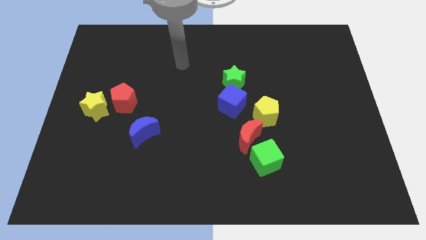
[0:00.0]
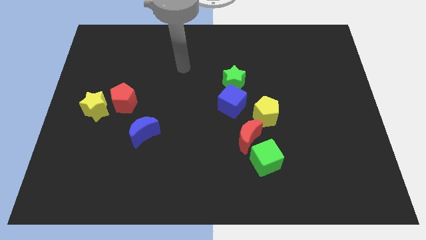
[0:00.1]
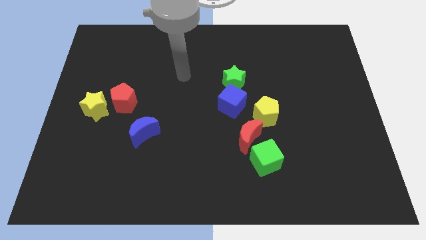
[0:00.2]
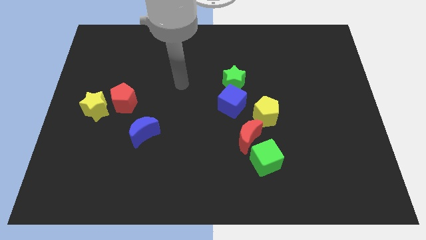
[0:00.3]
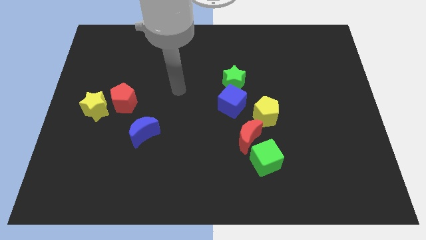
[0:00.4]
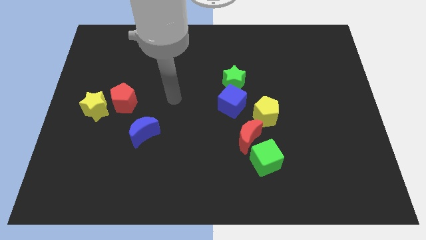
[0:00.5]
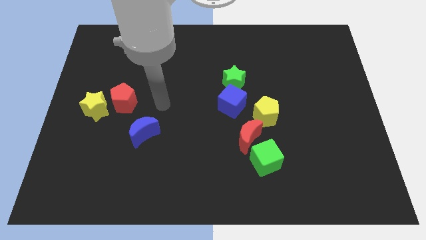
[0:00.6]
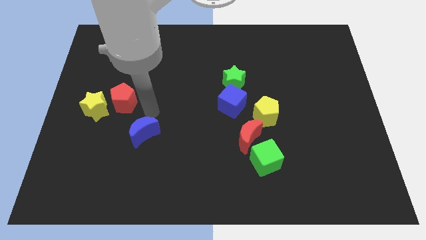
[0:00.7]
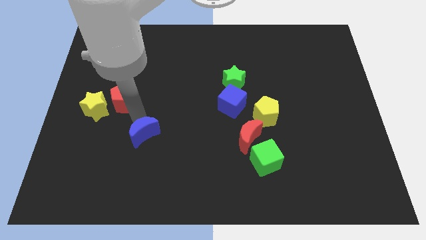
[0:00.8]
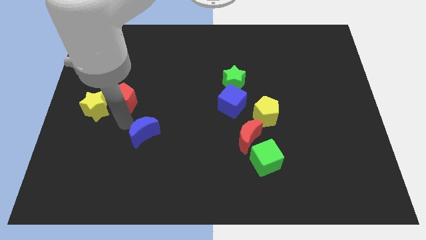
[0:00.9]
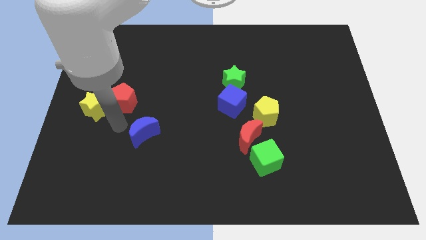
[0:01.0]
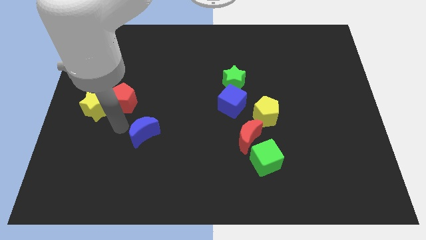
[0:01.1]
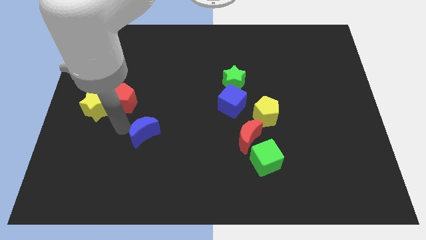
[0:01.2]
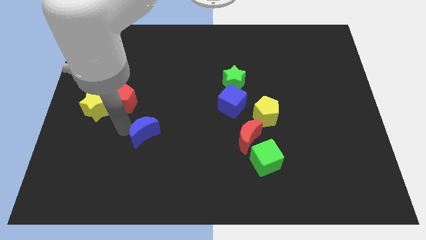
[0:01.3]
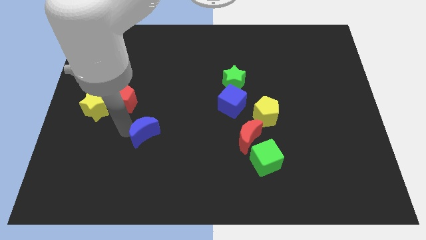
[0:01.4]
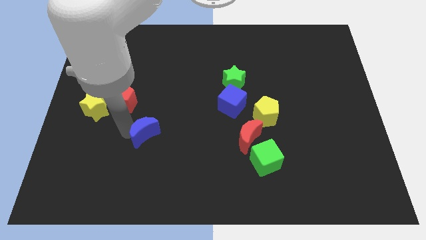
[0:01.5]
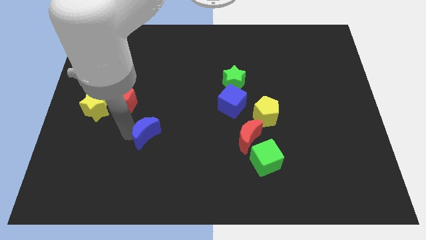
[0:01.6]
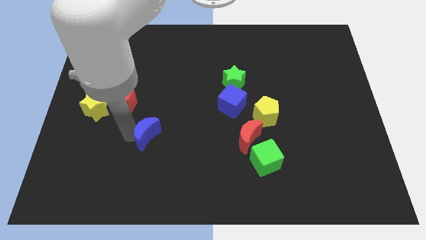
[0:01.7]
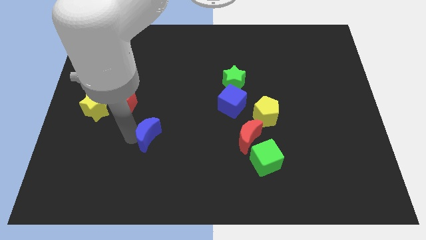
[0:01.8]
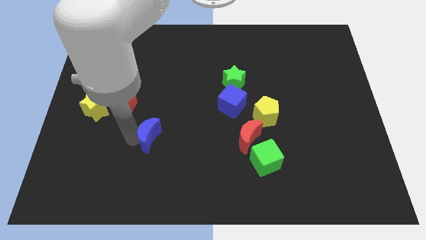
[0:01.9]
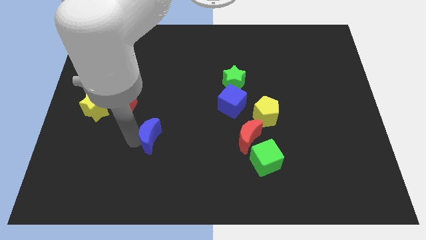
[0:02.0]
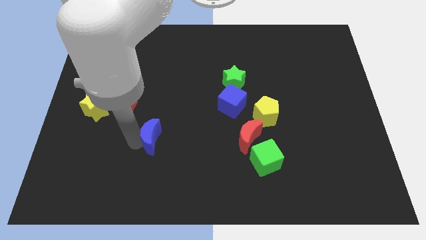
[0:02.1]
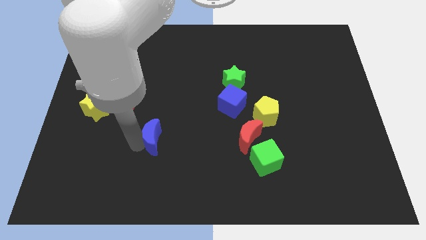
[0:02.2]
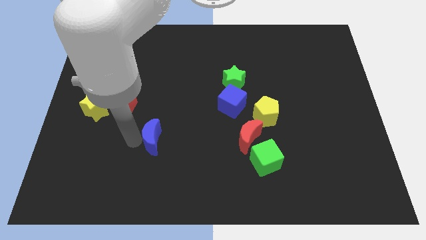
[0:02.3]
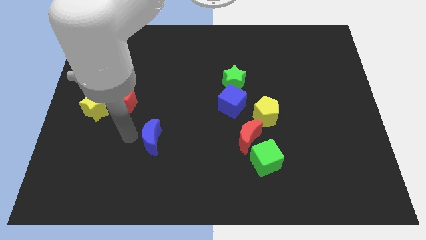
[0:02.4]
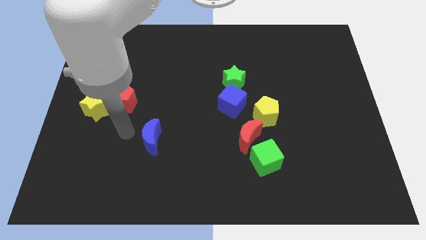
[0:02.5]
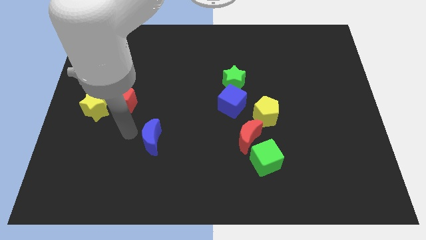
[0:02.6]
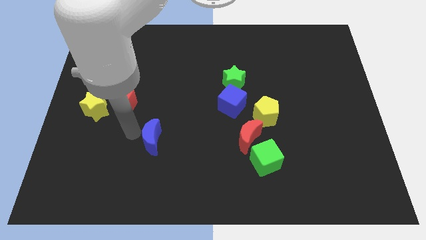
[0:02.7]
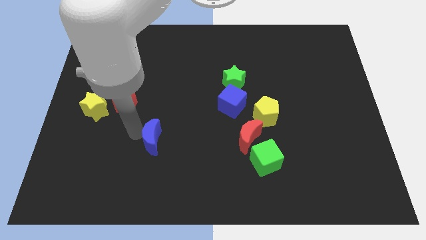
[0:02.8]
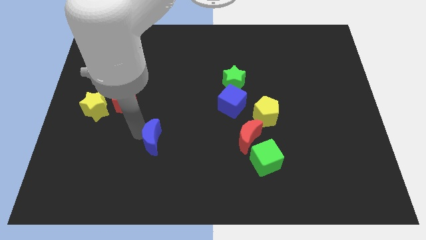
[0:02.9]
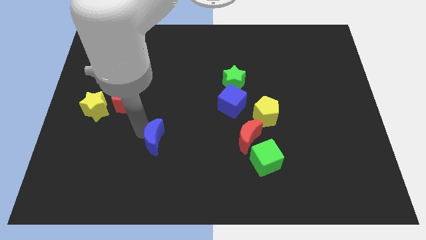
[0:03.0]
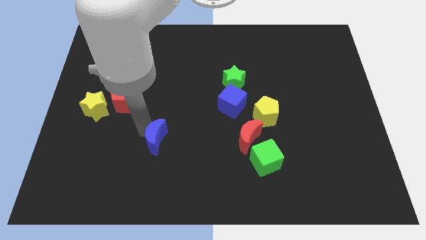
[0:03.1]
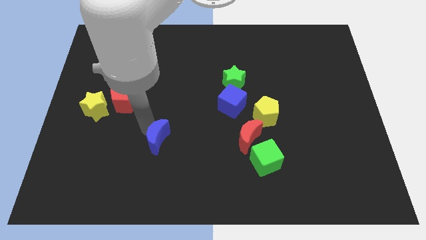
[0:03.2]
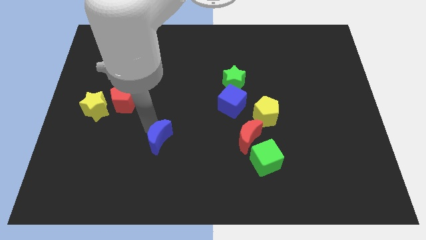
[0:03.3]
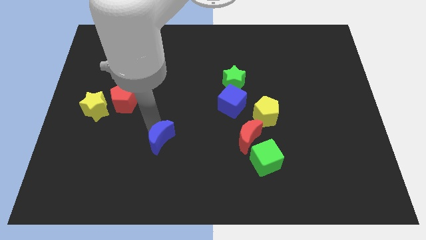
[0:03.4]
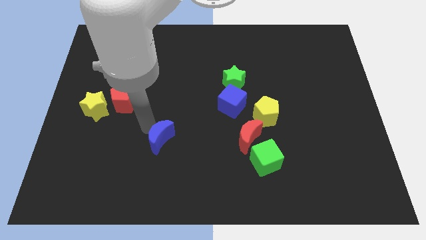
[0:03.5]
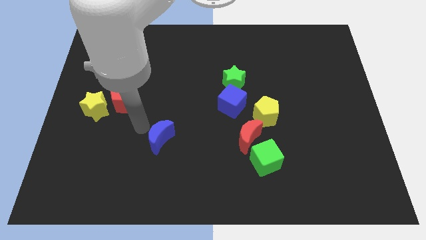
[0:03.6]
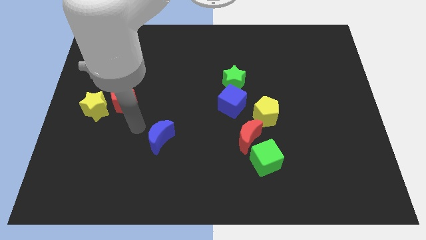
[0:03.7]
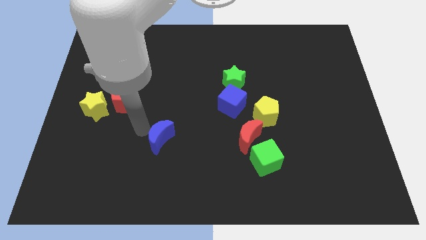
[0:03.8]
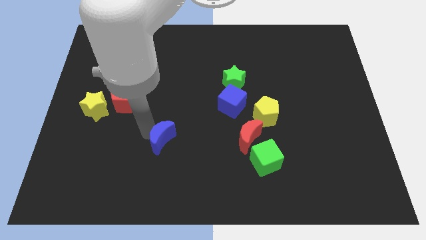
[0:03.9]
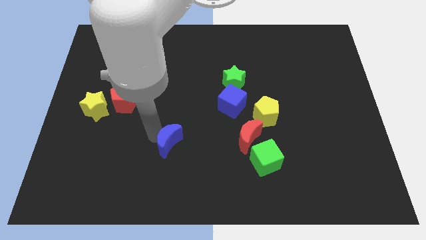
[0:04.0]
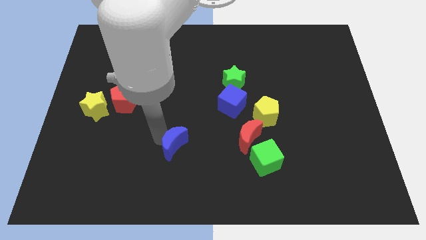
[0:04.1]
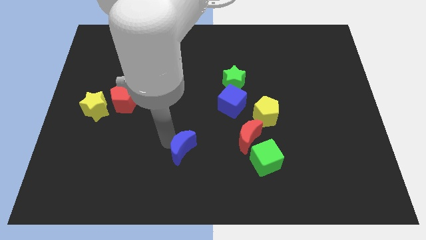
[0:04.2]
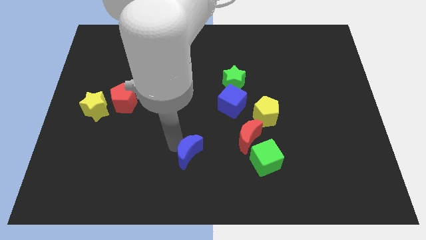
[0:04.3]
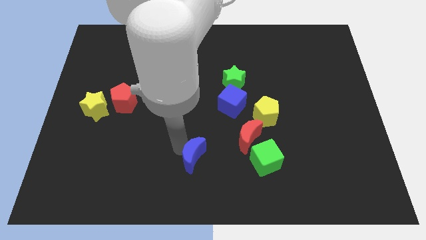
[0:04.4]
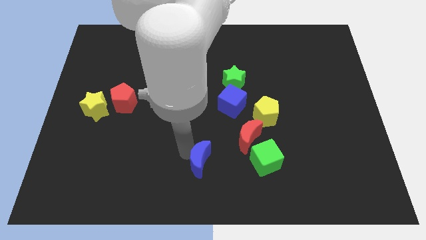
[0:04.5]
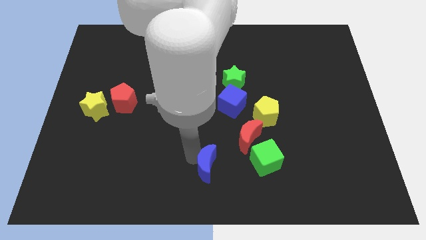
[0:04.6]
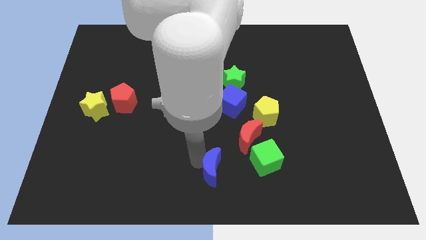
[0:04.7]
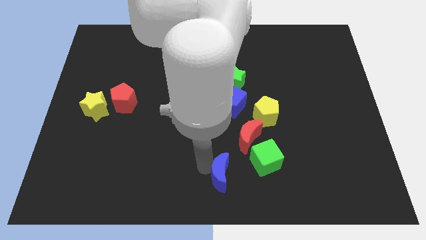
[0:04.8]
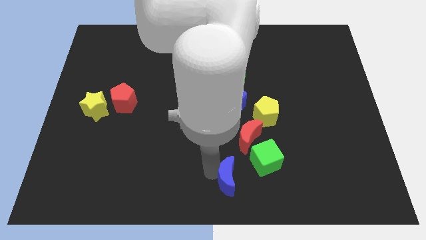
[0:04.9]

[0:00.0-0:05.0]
slide the blue moon to the bottom side of the red moon

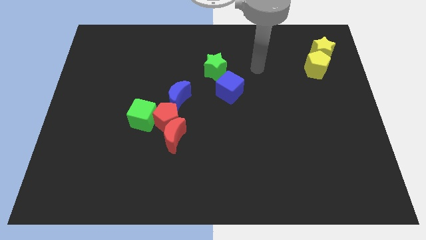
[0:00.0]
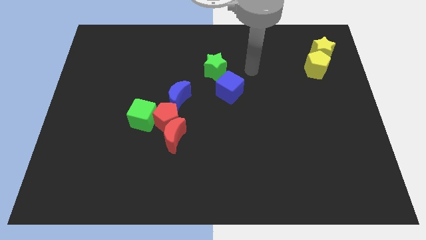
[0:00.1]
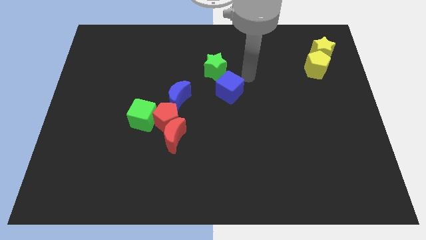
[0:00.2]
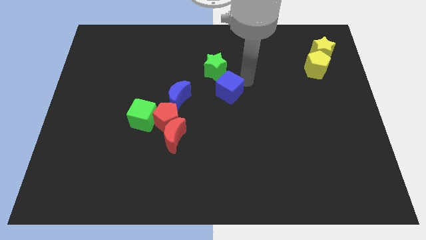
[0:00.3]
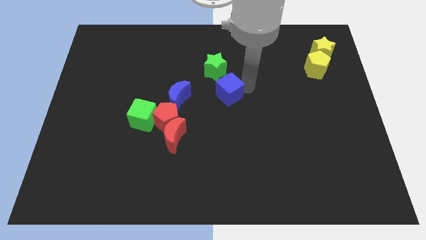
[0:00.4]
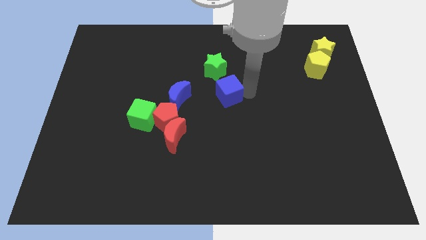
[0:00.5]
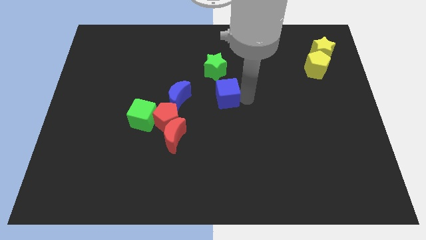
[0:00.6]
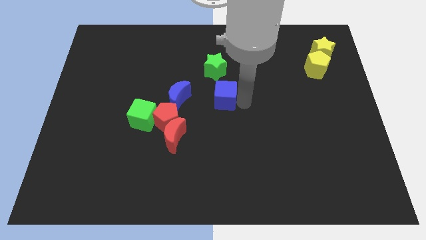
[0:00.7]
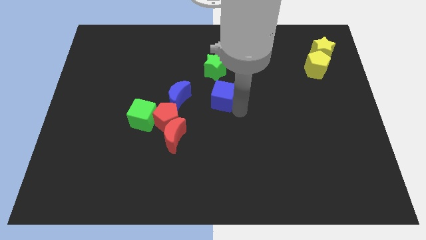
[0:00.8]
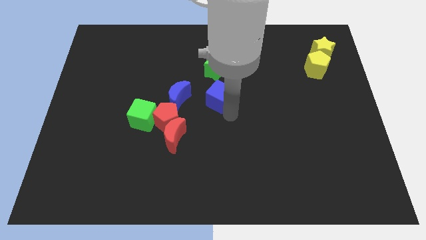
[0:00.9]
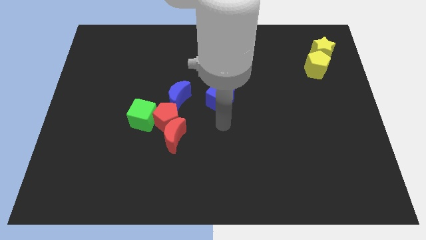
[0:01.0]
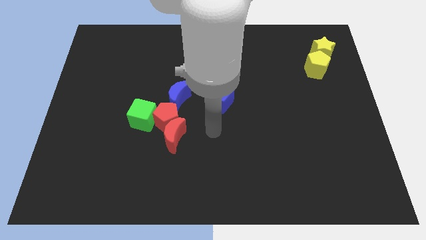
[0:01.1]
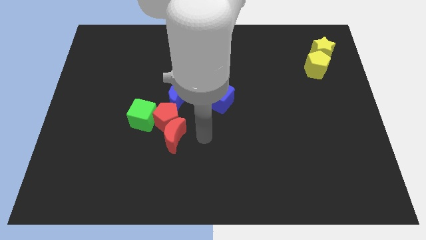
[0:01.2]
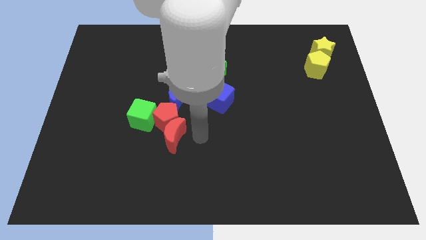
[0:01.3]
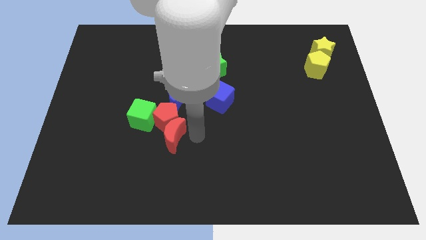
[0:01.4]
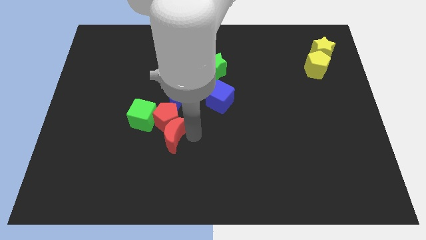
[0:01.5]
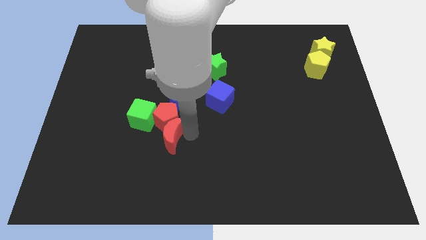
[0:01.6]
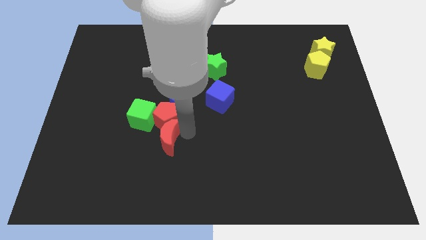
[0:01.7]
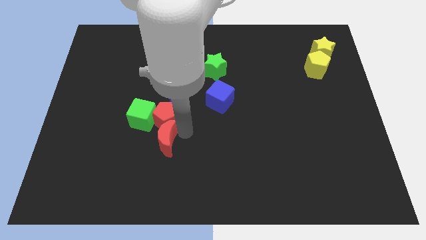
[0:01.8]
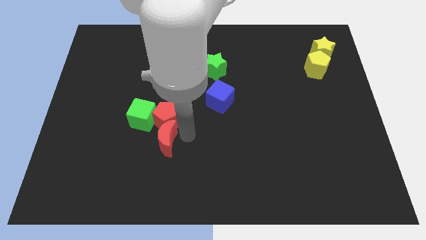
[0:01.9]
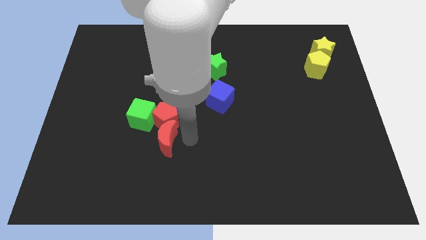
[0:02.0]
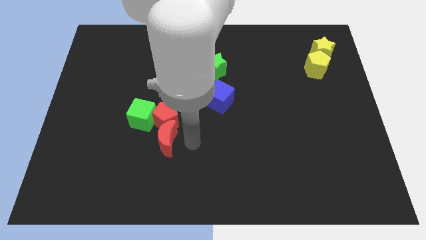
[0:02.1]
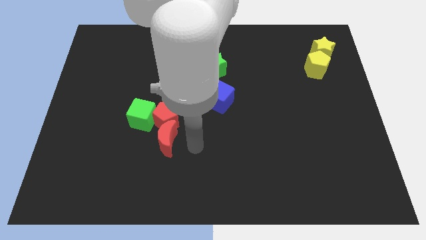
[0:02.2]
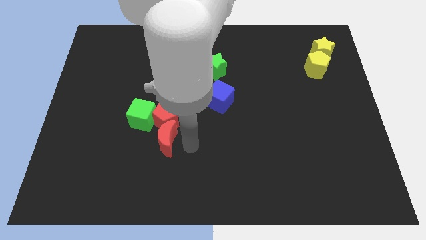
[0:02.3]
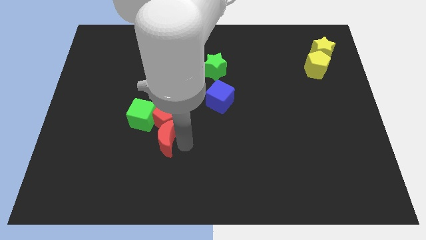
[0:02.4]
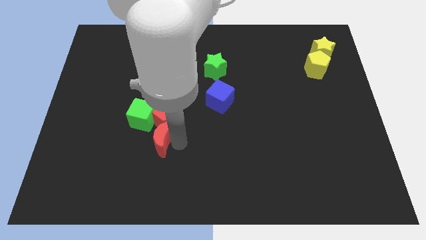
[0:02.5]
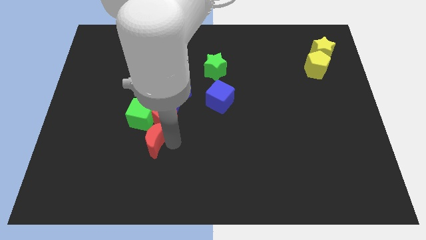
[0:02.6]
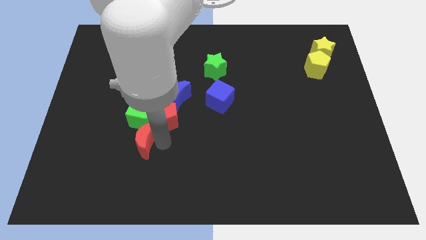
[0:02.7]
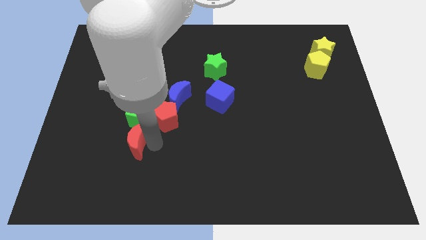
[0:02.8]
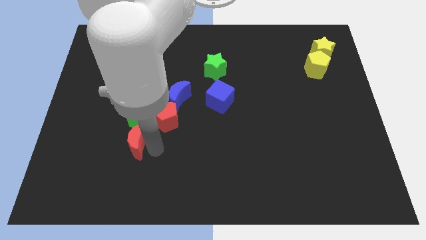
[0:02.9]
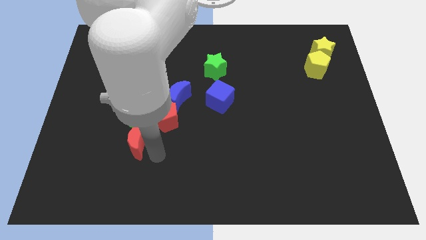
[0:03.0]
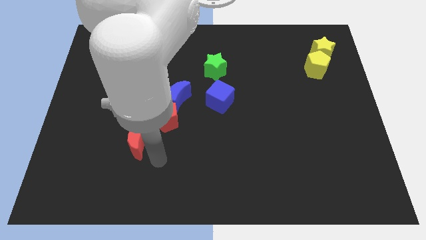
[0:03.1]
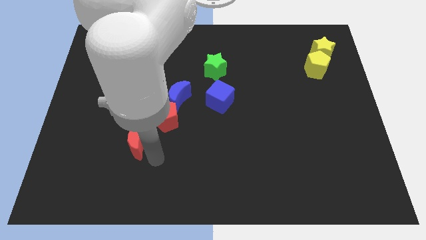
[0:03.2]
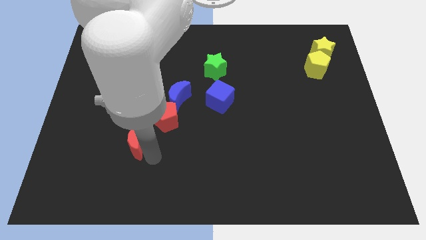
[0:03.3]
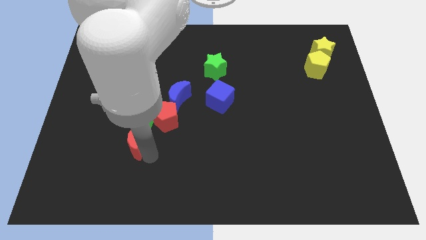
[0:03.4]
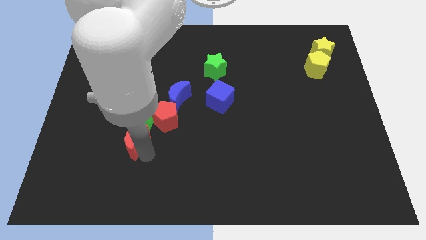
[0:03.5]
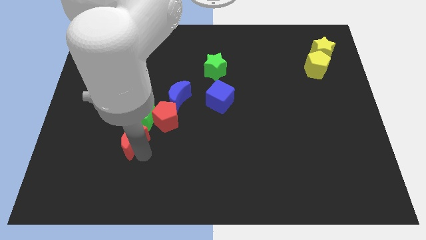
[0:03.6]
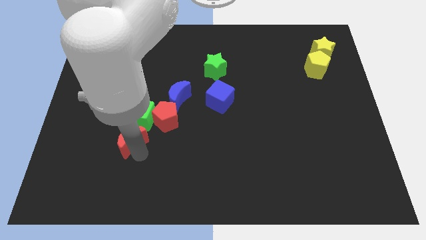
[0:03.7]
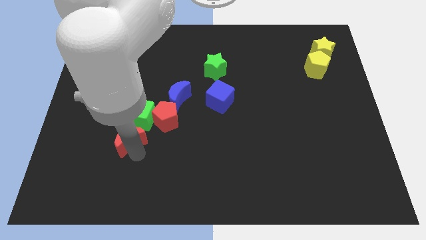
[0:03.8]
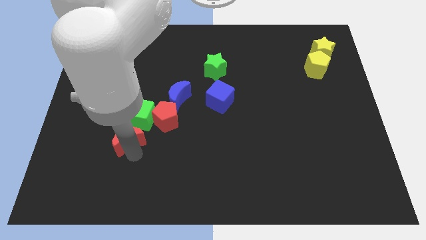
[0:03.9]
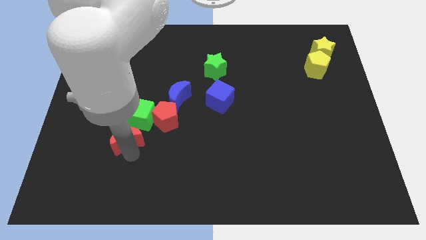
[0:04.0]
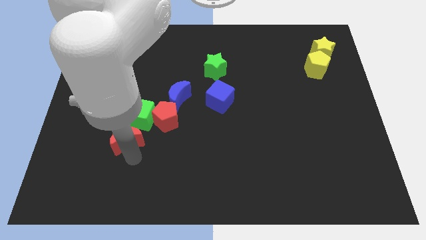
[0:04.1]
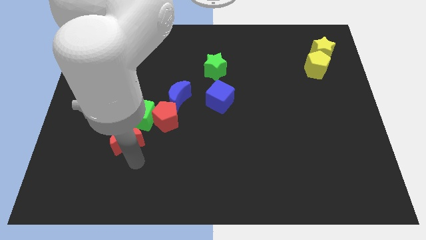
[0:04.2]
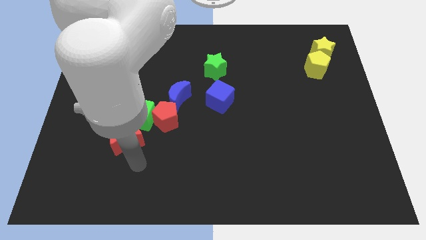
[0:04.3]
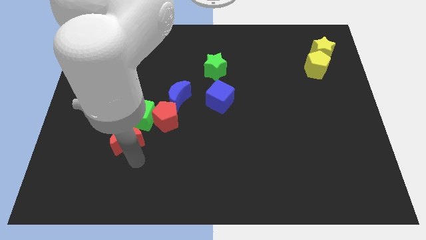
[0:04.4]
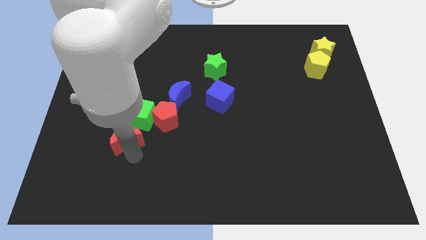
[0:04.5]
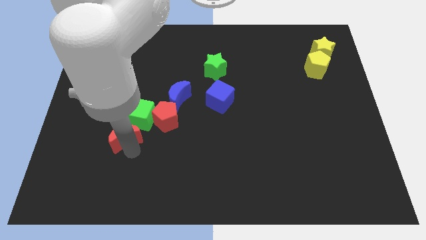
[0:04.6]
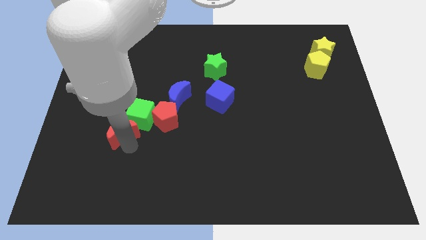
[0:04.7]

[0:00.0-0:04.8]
put the red moon just left of the green cube
